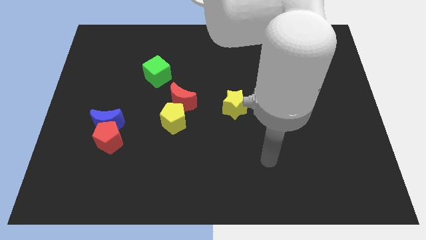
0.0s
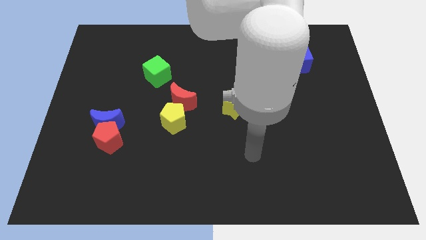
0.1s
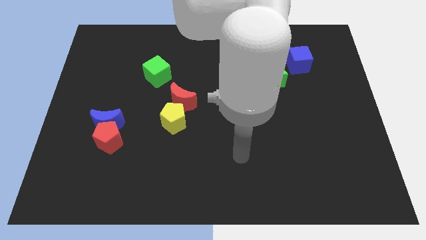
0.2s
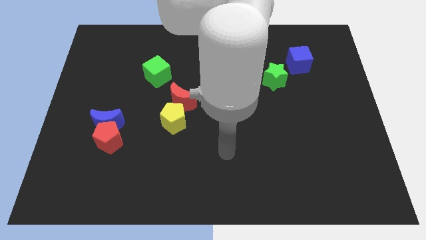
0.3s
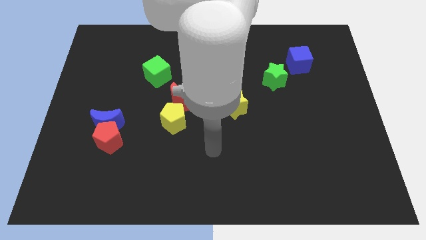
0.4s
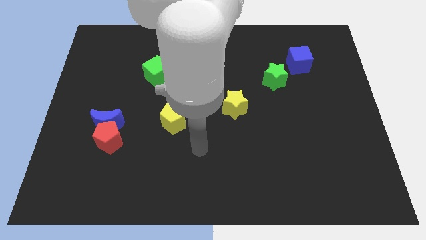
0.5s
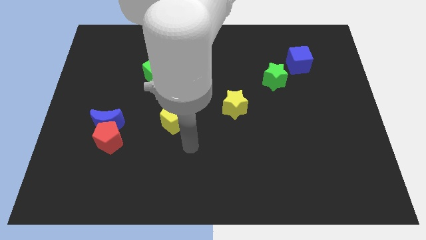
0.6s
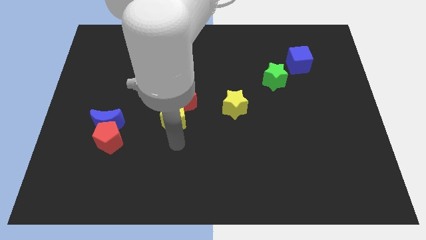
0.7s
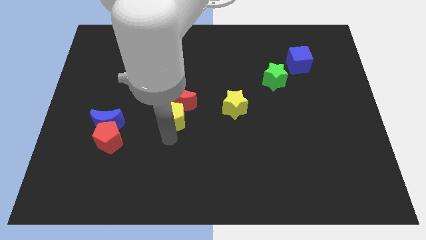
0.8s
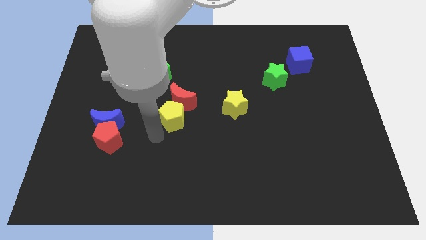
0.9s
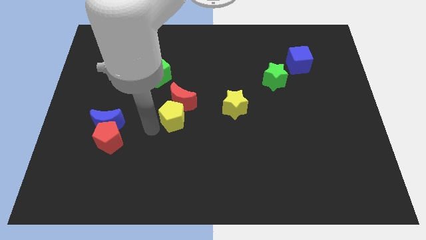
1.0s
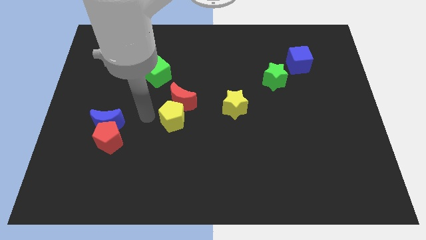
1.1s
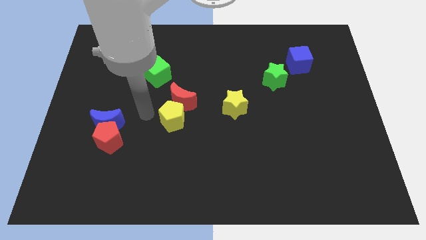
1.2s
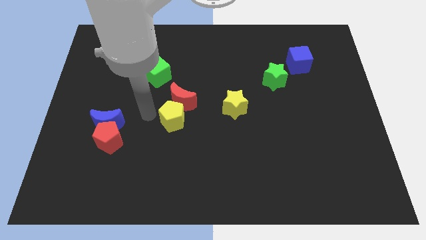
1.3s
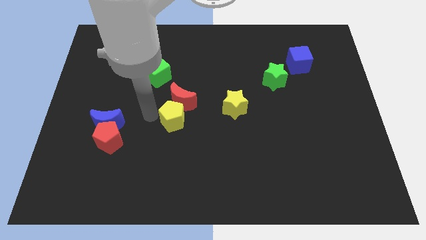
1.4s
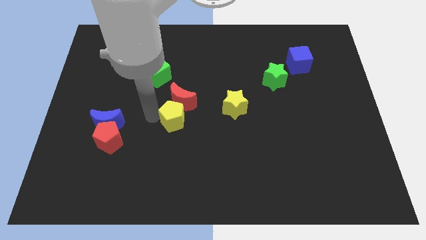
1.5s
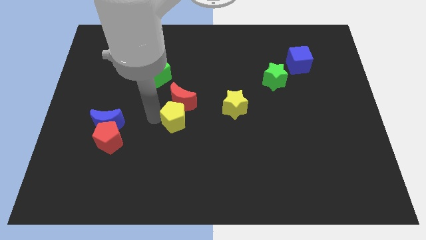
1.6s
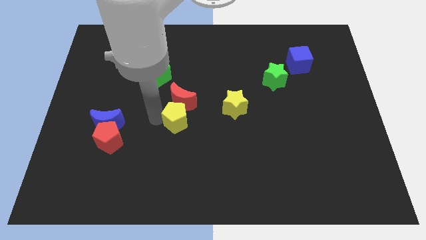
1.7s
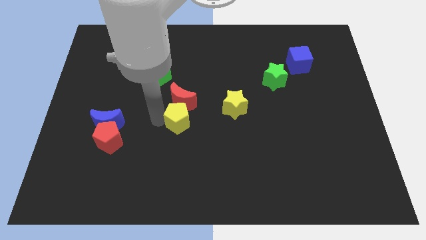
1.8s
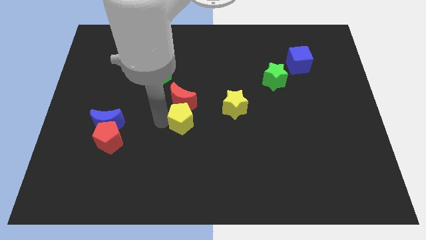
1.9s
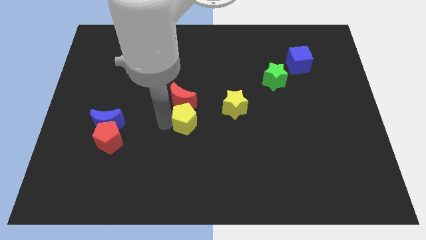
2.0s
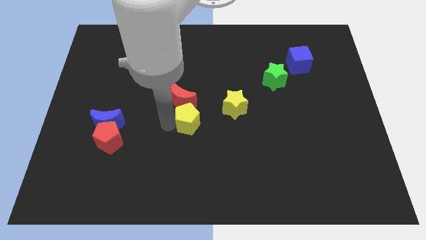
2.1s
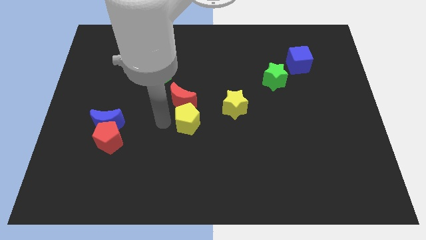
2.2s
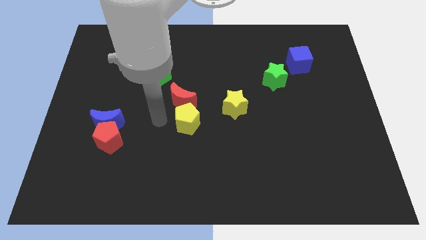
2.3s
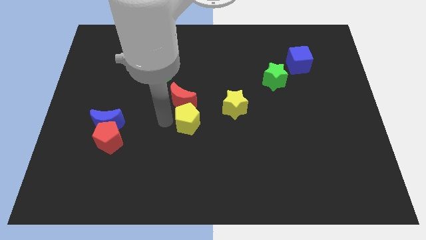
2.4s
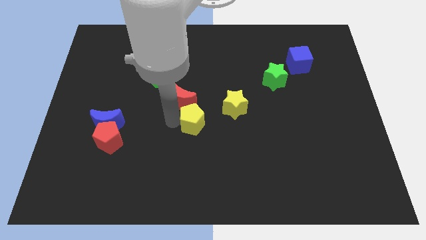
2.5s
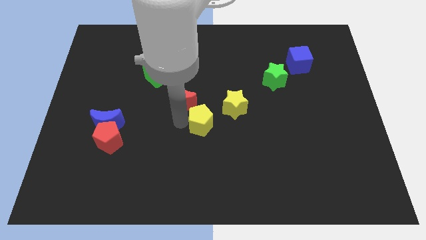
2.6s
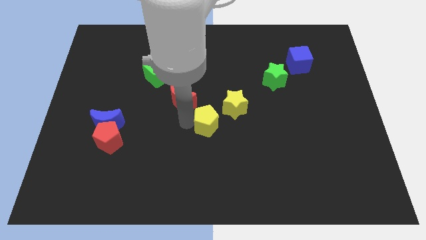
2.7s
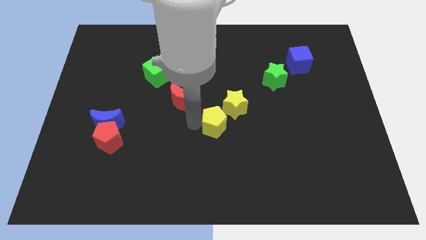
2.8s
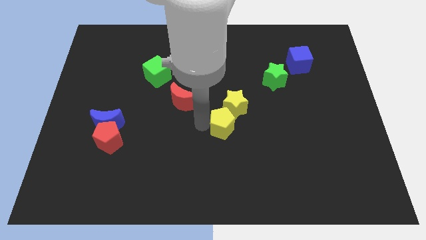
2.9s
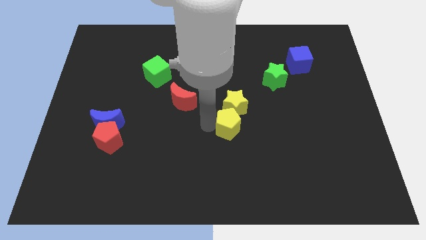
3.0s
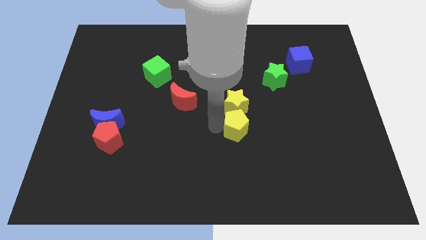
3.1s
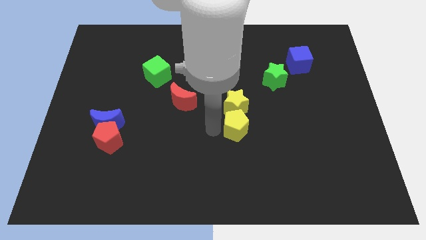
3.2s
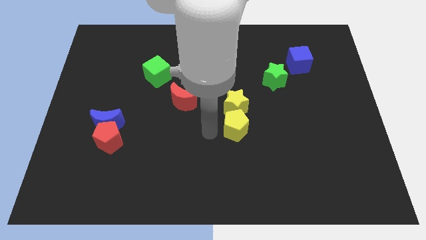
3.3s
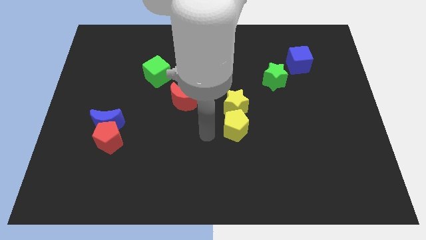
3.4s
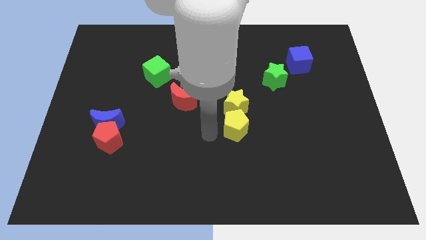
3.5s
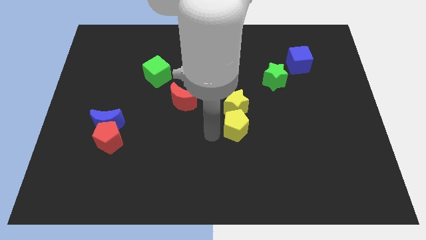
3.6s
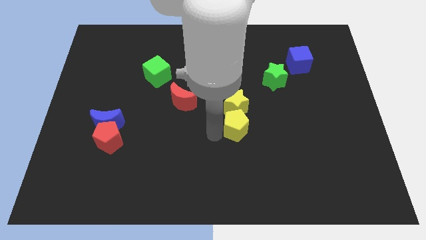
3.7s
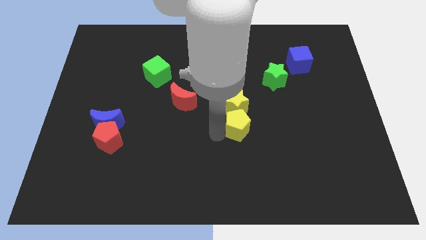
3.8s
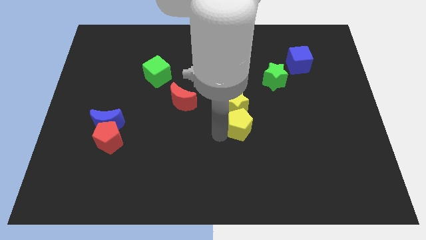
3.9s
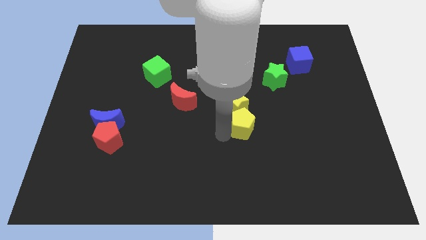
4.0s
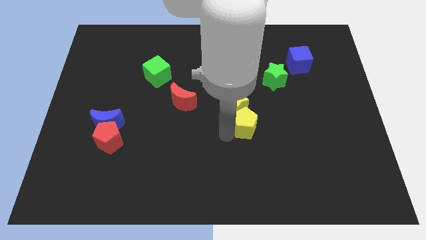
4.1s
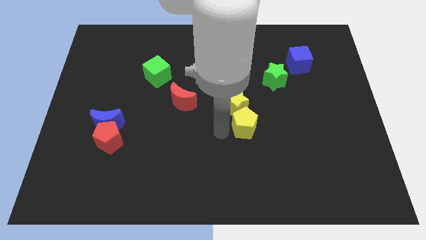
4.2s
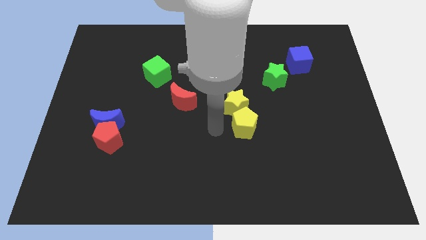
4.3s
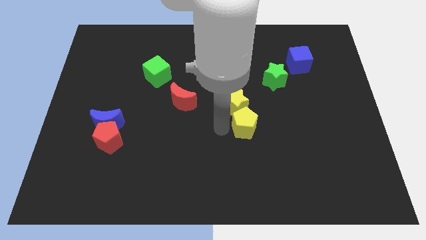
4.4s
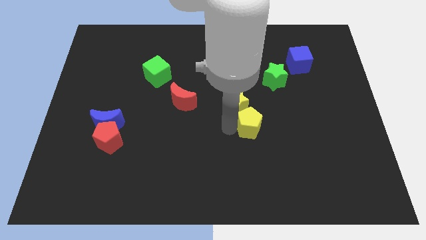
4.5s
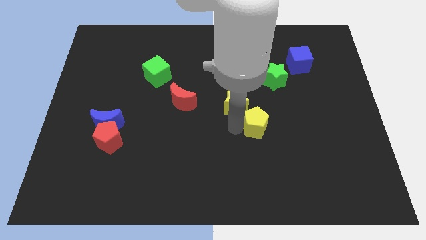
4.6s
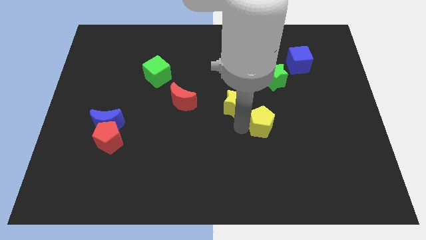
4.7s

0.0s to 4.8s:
slide the yellow pentagon to the right

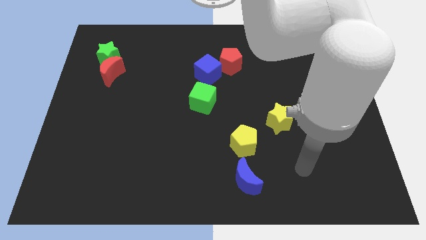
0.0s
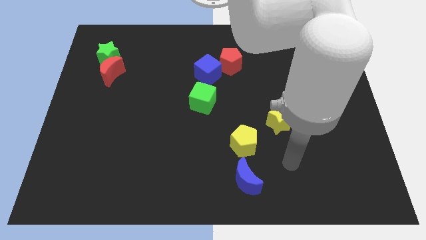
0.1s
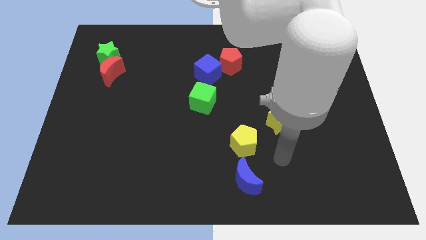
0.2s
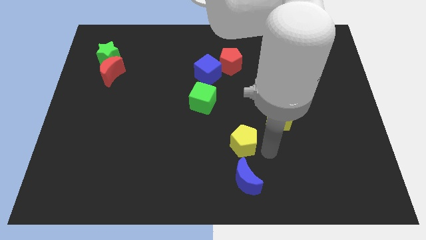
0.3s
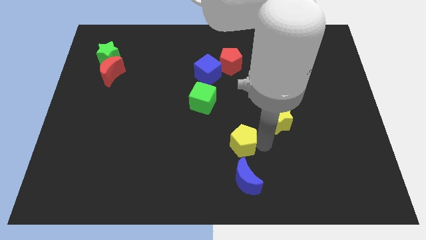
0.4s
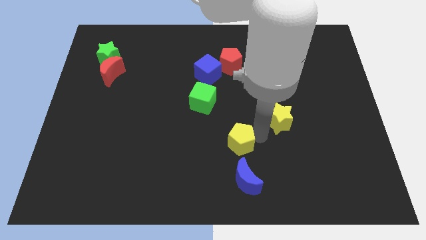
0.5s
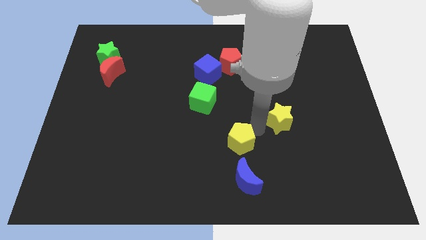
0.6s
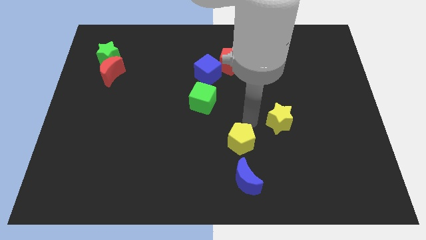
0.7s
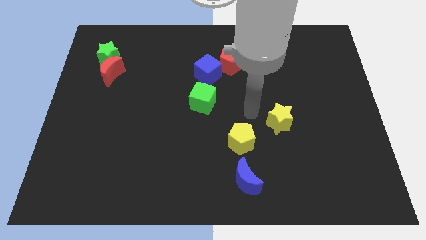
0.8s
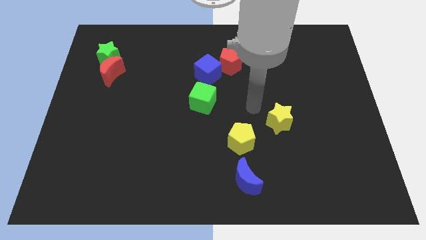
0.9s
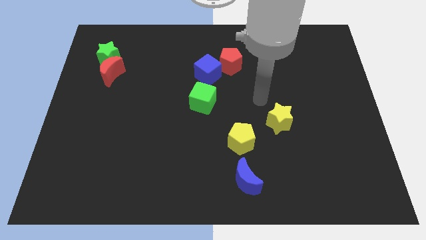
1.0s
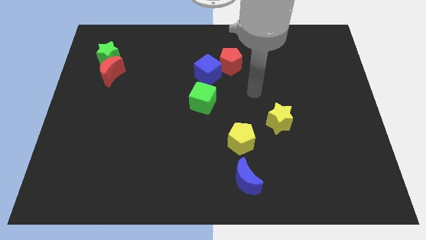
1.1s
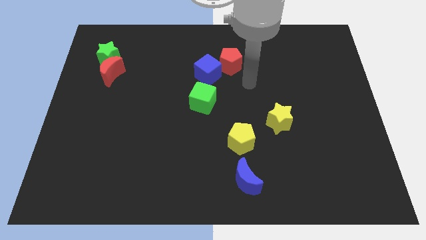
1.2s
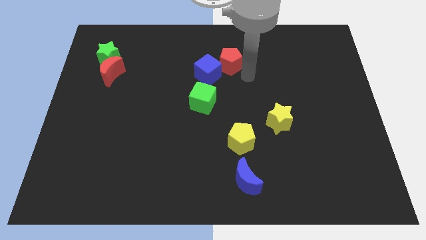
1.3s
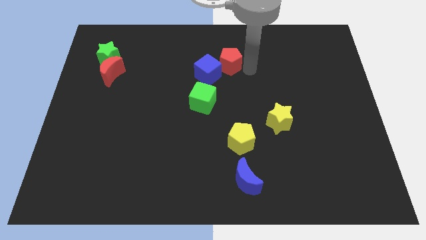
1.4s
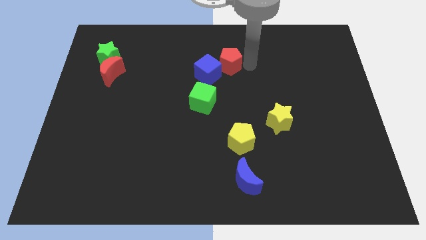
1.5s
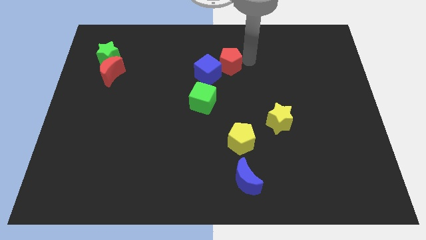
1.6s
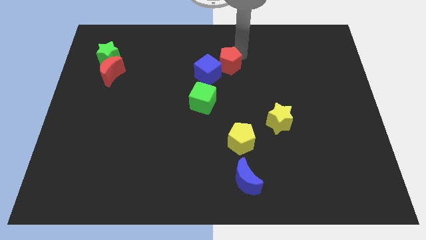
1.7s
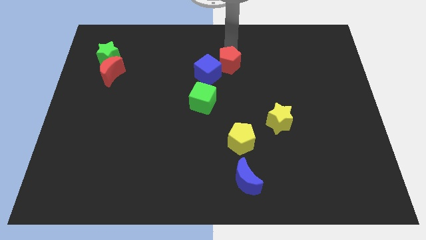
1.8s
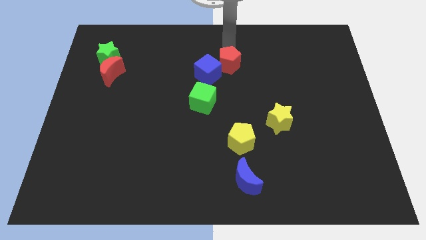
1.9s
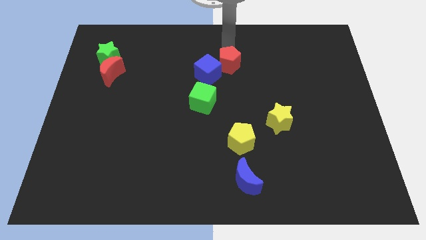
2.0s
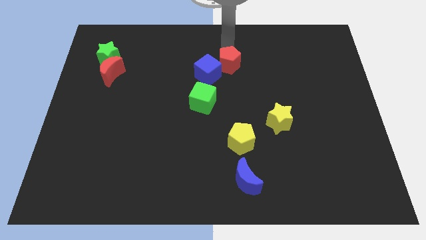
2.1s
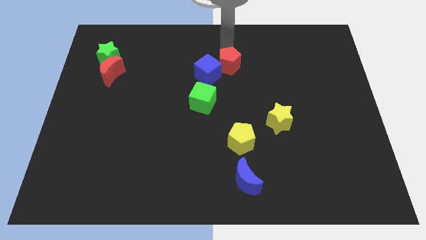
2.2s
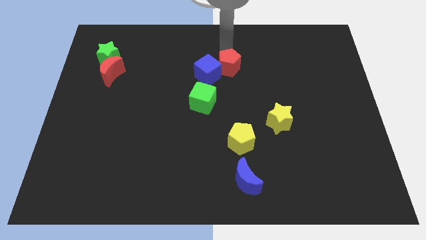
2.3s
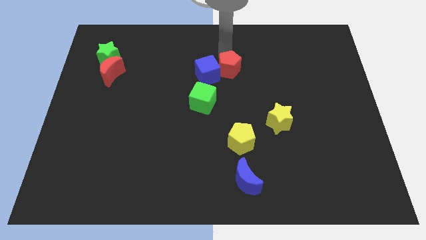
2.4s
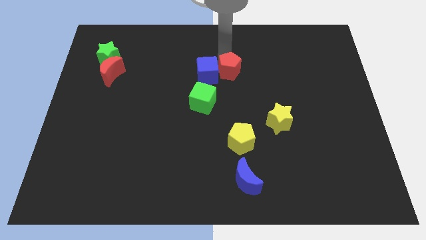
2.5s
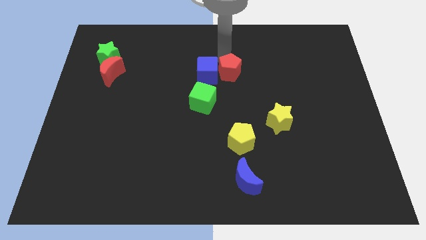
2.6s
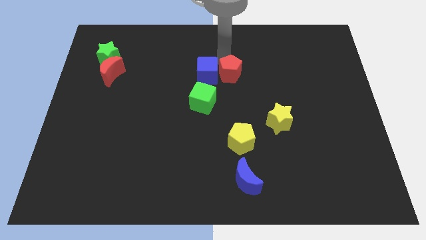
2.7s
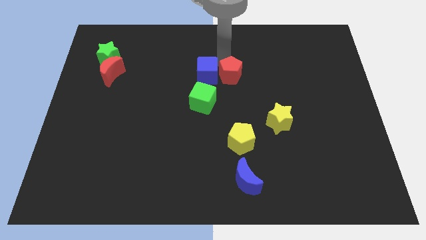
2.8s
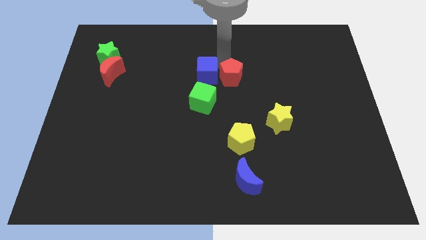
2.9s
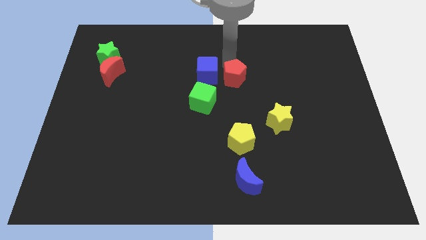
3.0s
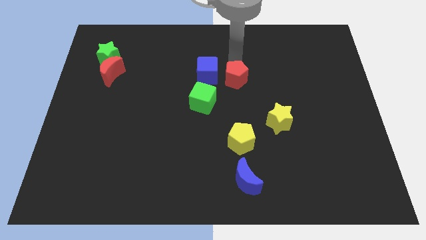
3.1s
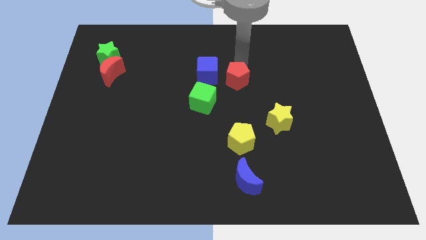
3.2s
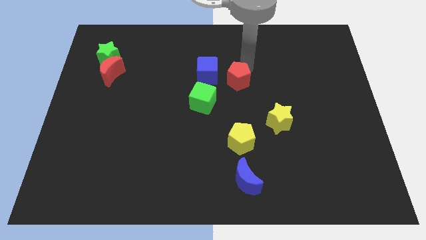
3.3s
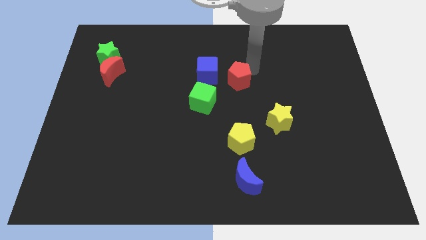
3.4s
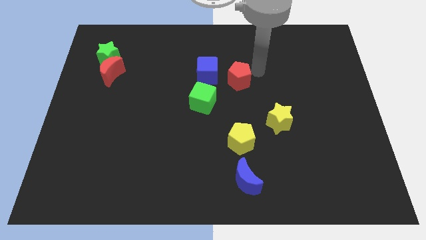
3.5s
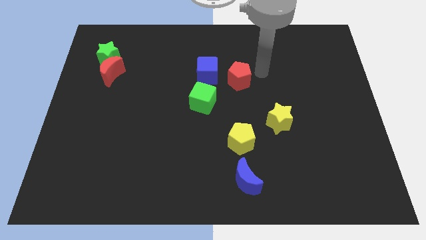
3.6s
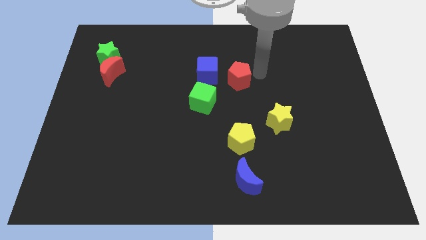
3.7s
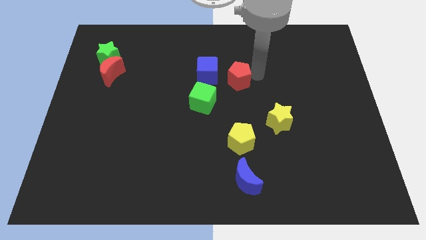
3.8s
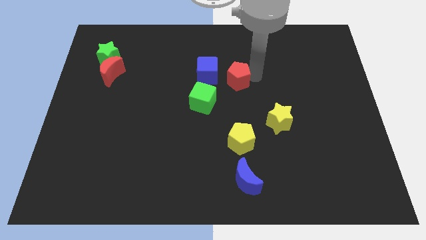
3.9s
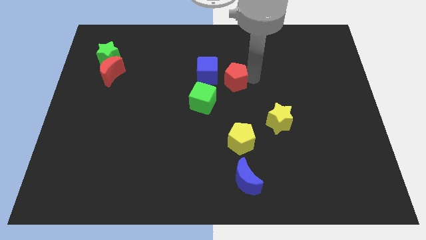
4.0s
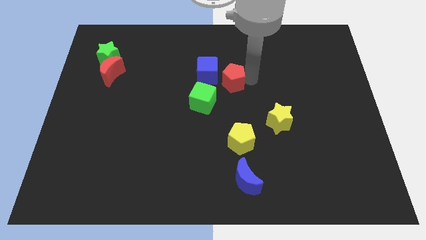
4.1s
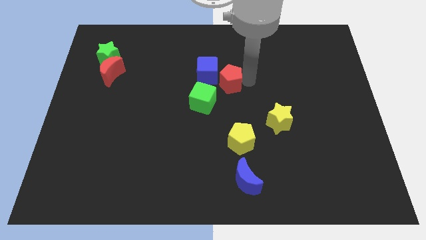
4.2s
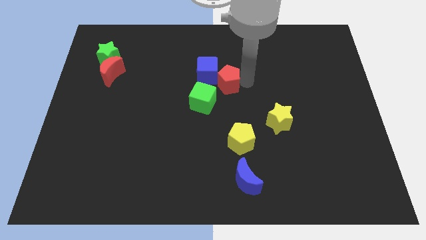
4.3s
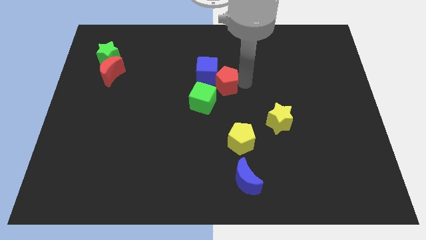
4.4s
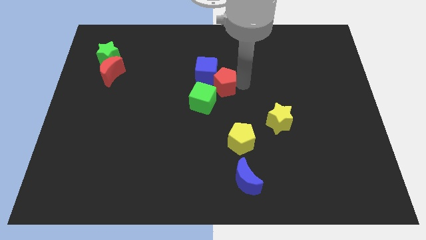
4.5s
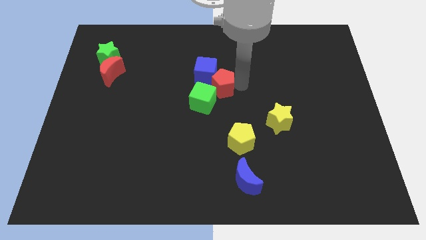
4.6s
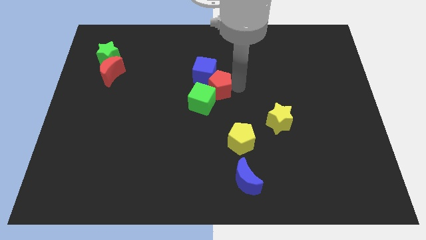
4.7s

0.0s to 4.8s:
move the red pentagon diagonally down and to the left a little
